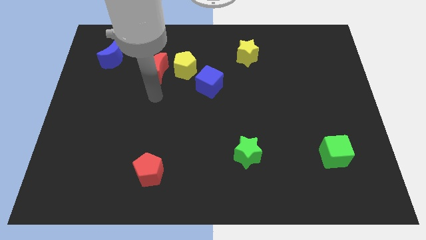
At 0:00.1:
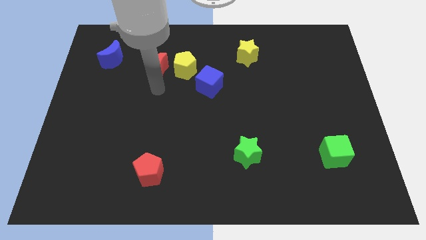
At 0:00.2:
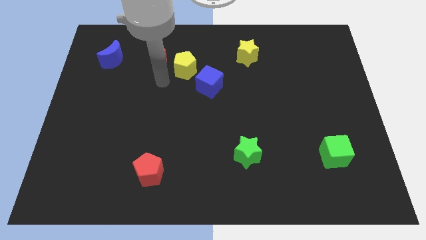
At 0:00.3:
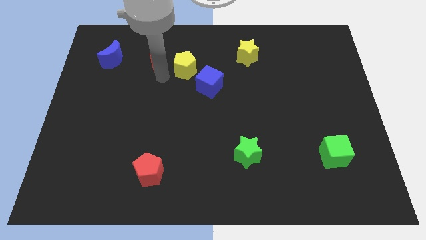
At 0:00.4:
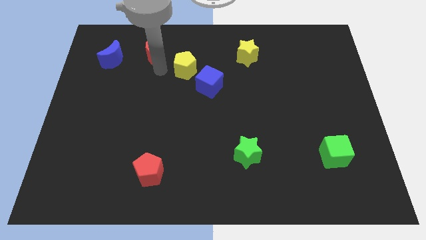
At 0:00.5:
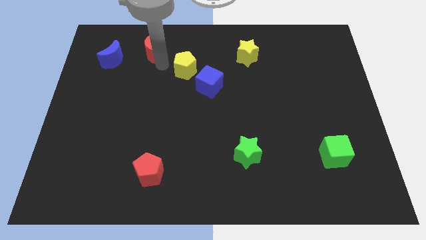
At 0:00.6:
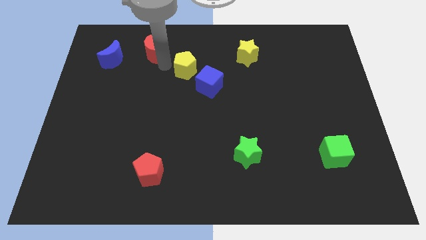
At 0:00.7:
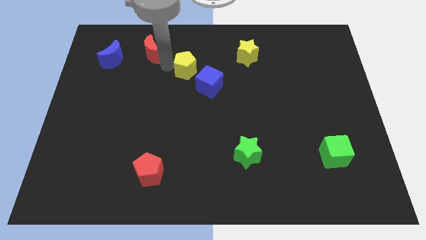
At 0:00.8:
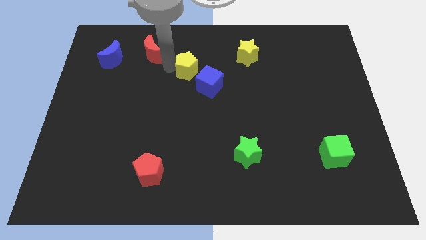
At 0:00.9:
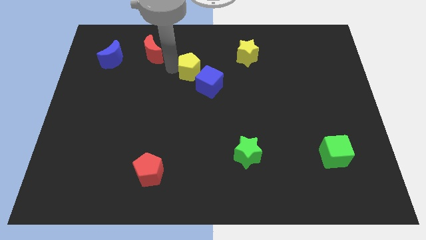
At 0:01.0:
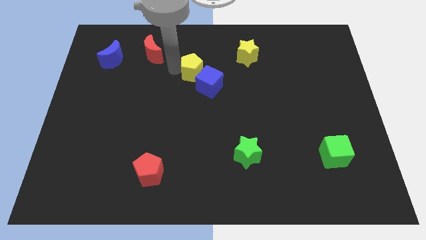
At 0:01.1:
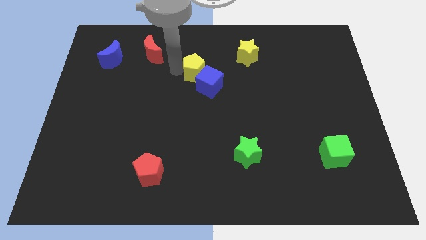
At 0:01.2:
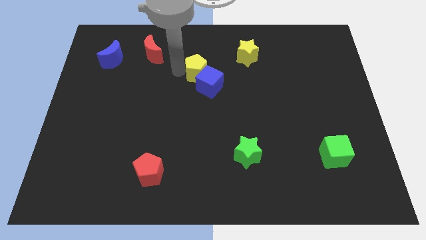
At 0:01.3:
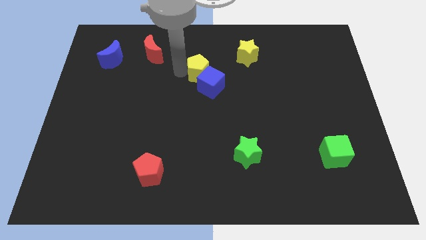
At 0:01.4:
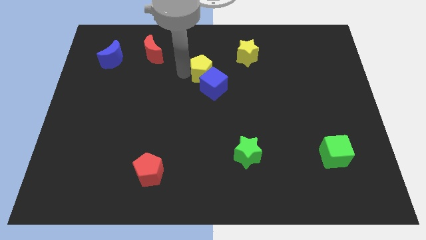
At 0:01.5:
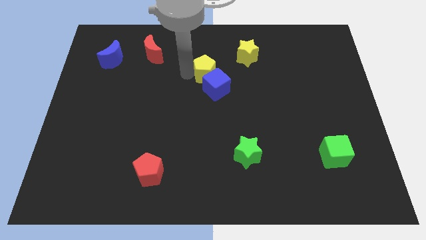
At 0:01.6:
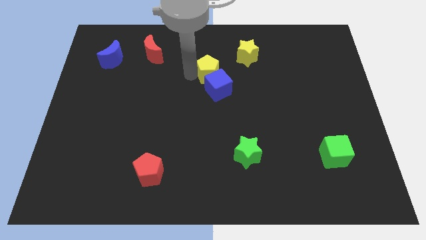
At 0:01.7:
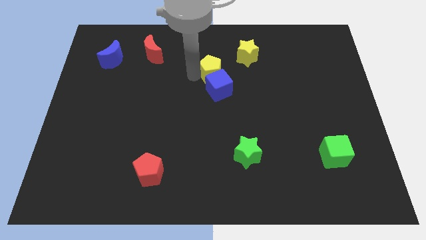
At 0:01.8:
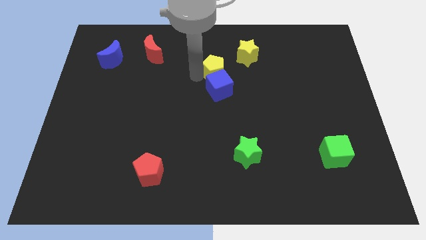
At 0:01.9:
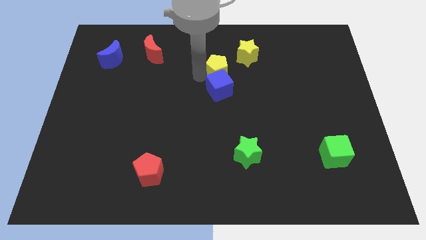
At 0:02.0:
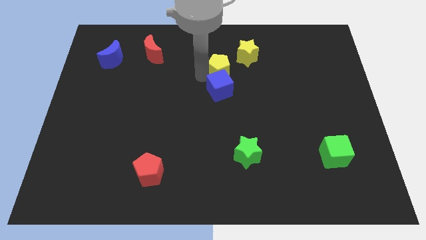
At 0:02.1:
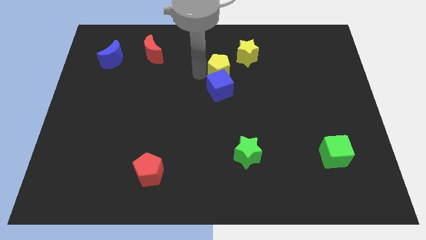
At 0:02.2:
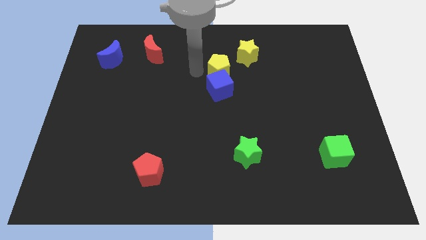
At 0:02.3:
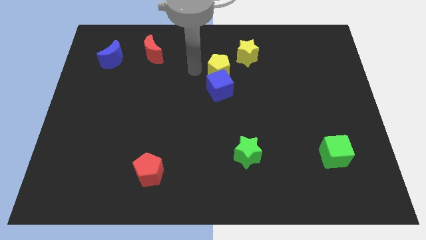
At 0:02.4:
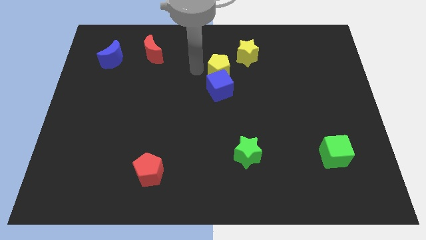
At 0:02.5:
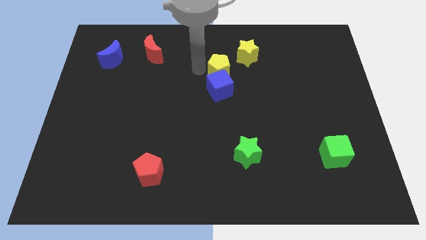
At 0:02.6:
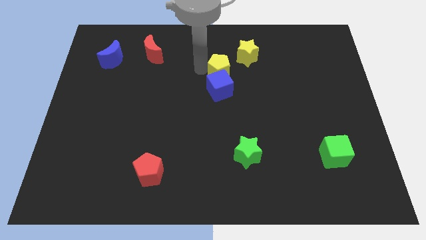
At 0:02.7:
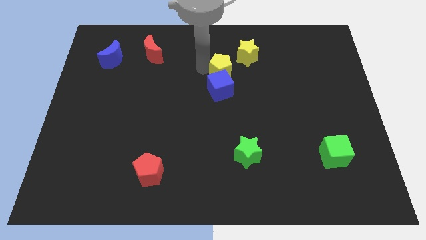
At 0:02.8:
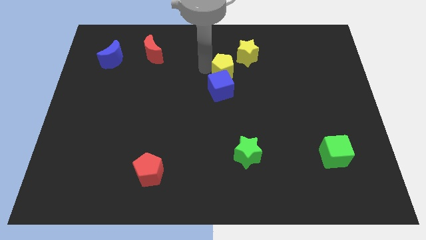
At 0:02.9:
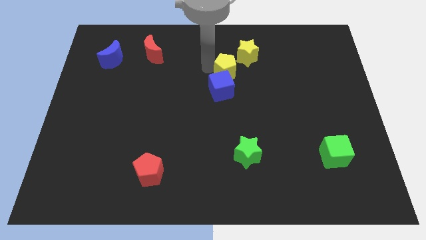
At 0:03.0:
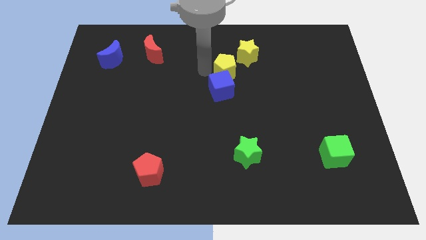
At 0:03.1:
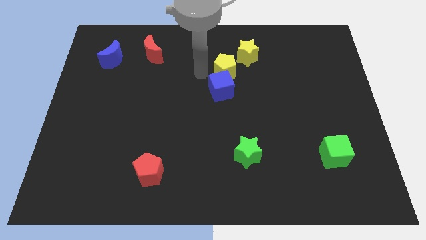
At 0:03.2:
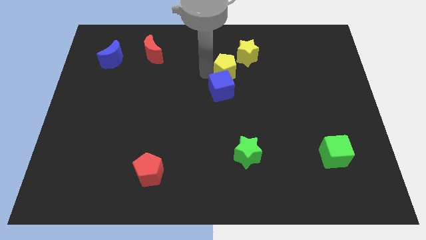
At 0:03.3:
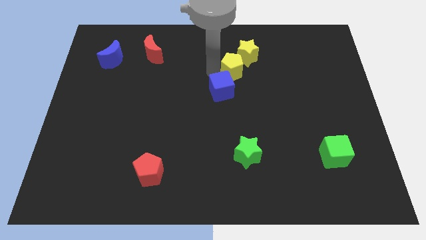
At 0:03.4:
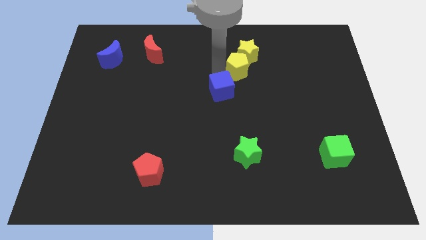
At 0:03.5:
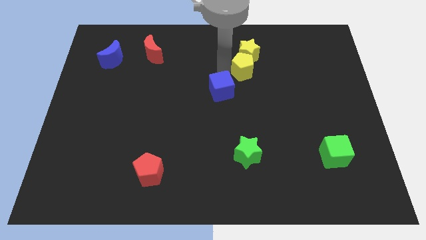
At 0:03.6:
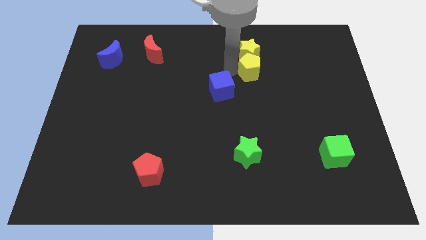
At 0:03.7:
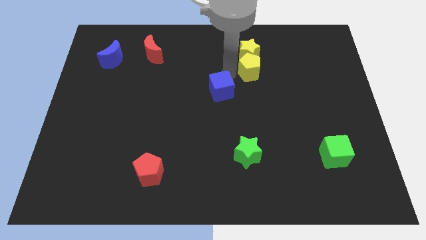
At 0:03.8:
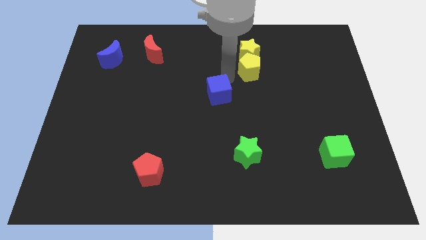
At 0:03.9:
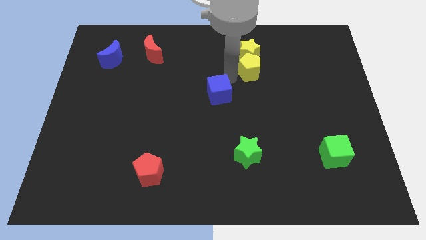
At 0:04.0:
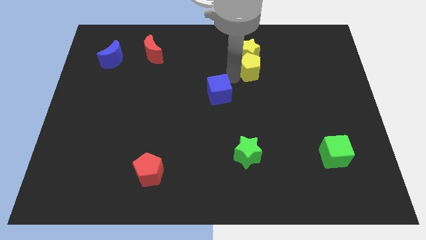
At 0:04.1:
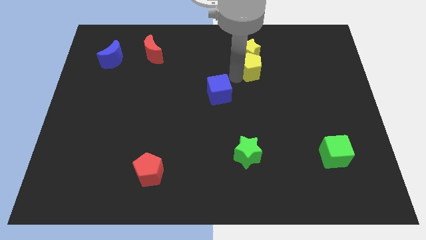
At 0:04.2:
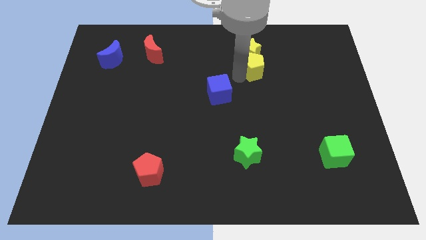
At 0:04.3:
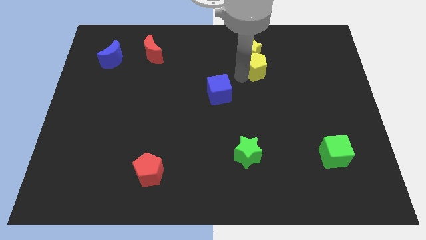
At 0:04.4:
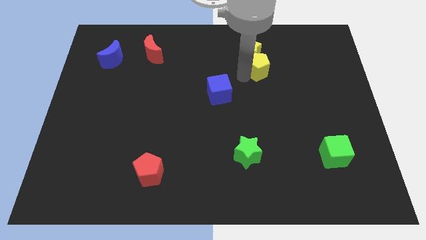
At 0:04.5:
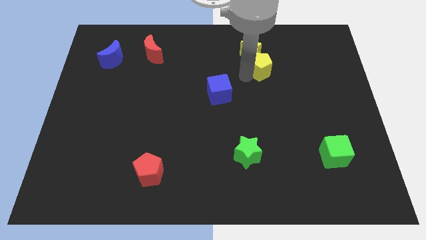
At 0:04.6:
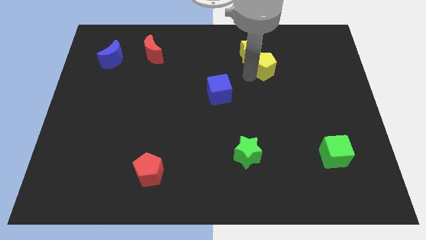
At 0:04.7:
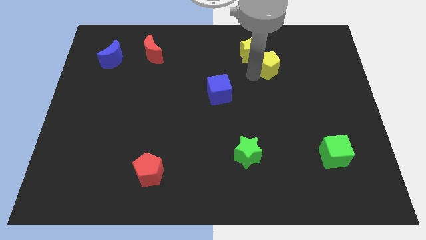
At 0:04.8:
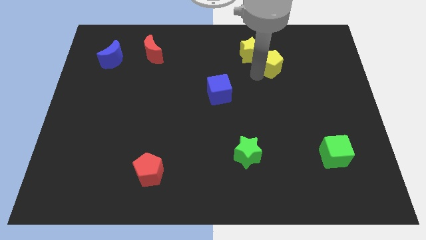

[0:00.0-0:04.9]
slide the yellow pentagon to the right side of the yellow star

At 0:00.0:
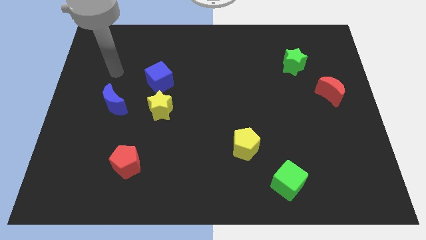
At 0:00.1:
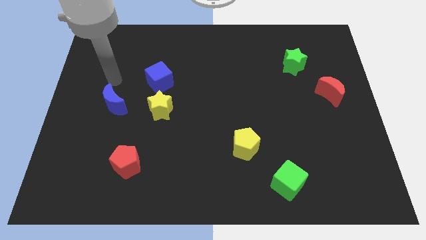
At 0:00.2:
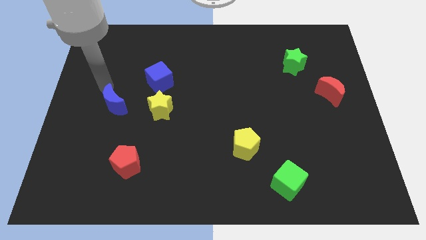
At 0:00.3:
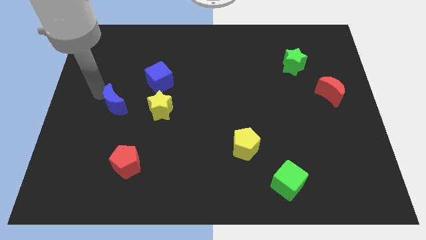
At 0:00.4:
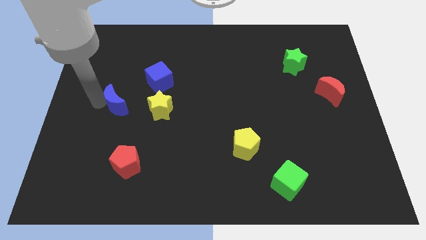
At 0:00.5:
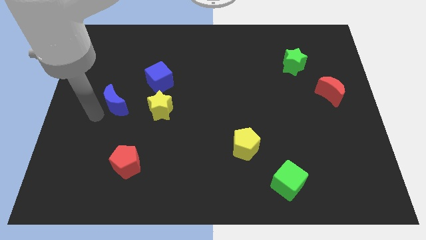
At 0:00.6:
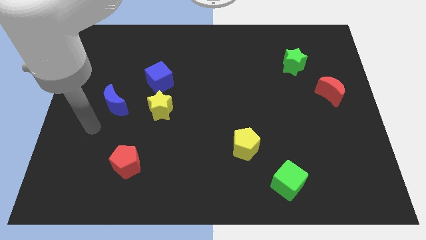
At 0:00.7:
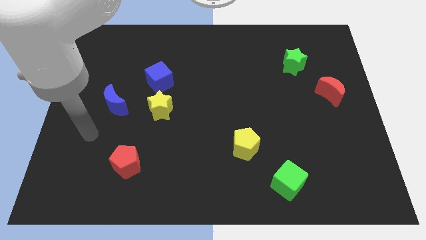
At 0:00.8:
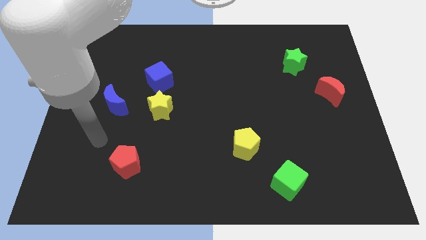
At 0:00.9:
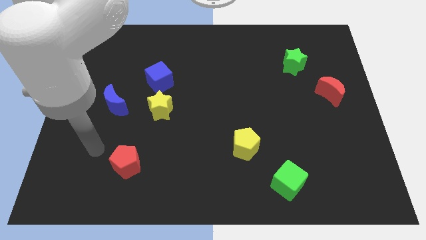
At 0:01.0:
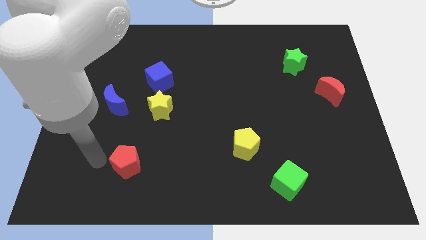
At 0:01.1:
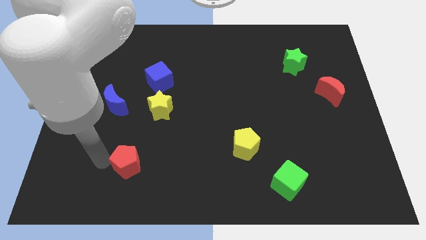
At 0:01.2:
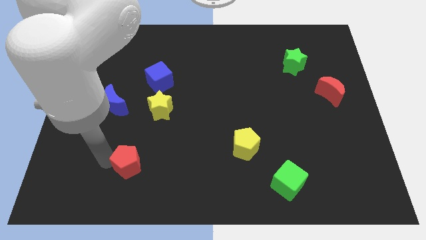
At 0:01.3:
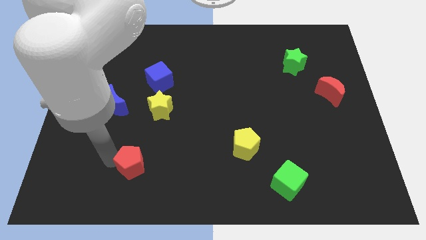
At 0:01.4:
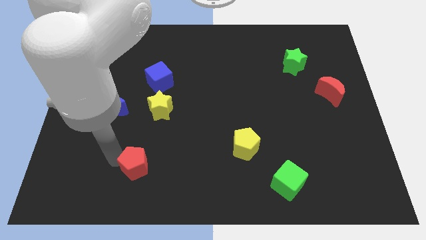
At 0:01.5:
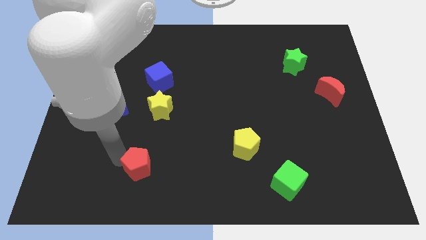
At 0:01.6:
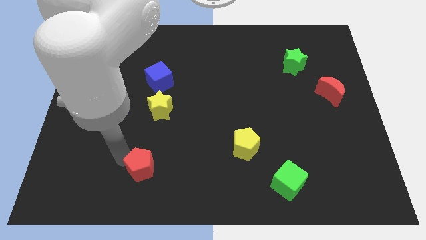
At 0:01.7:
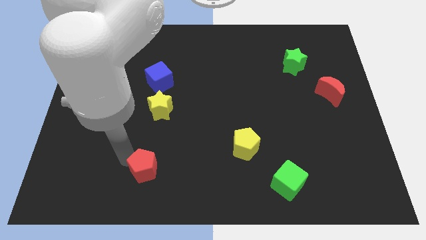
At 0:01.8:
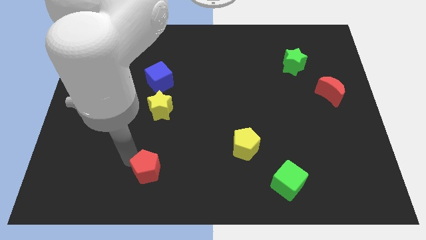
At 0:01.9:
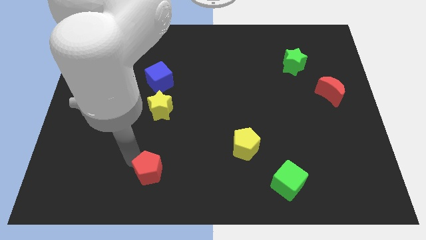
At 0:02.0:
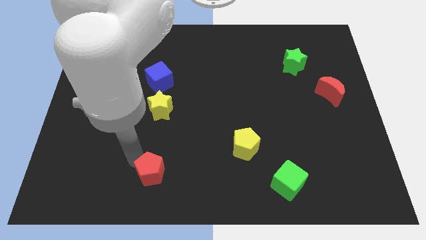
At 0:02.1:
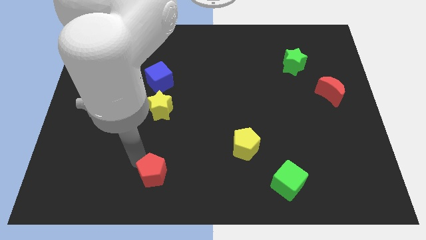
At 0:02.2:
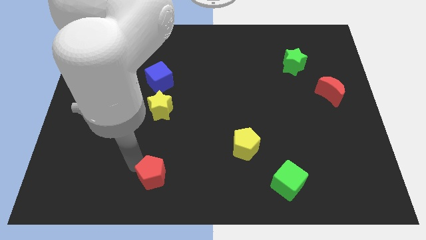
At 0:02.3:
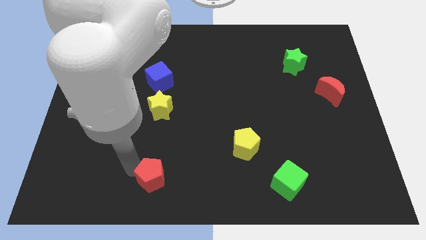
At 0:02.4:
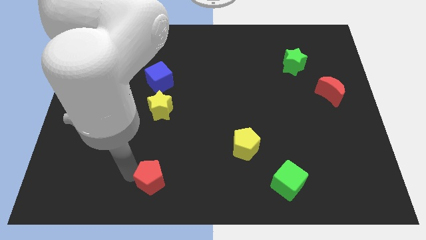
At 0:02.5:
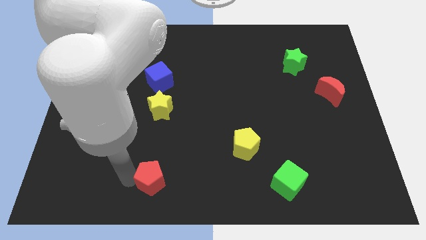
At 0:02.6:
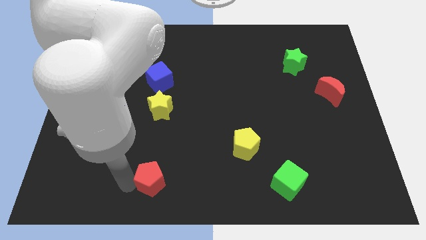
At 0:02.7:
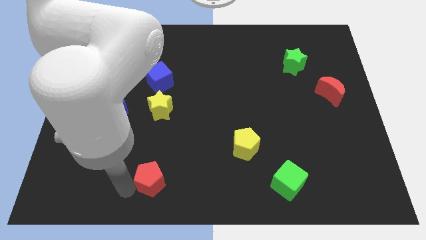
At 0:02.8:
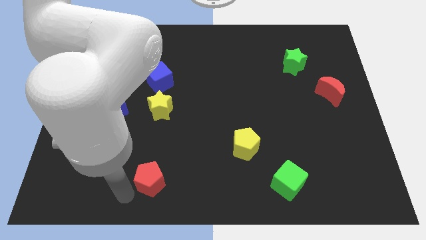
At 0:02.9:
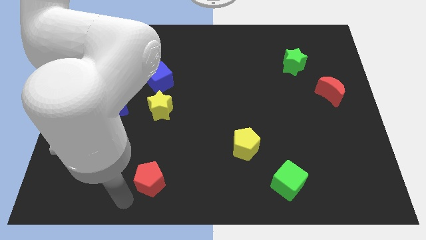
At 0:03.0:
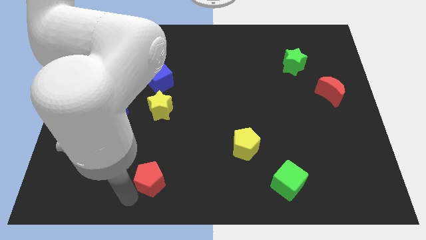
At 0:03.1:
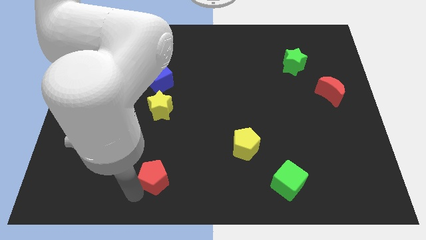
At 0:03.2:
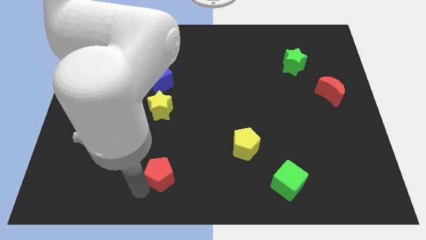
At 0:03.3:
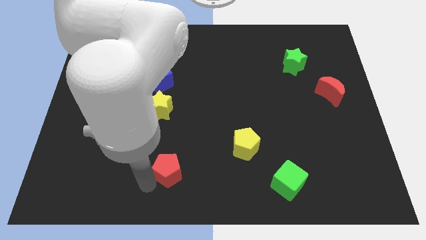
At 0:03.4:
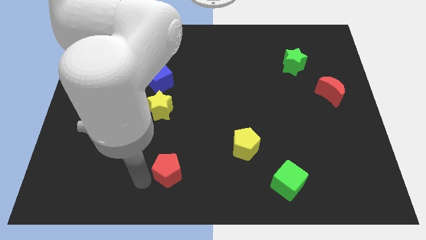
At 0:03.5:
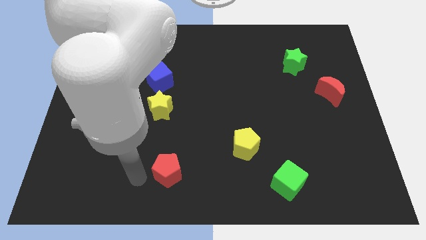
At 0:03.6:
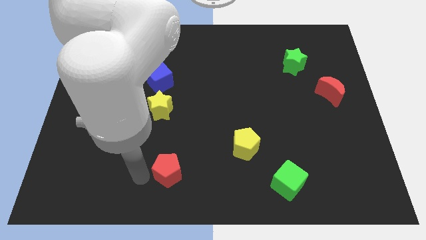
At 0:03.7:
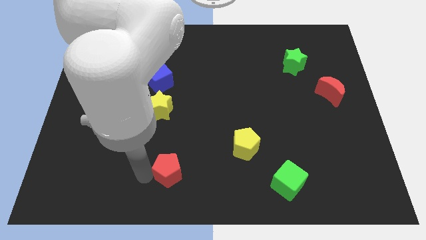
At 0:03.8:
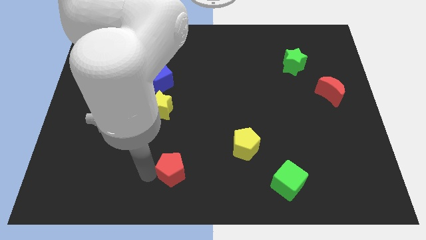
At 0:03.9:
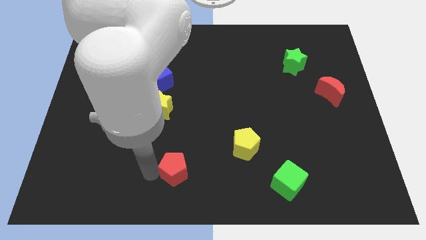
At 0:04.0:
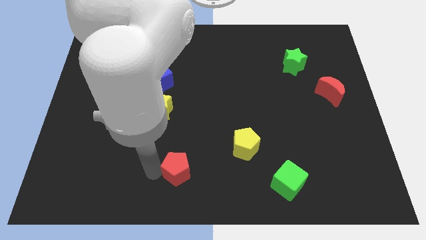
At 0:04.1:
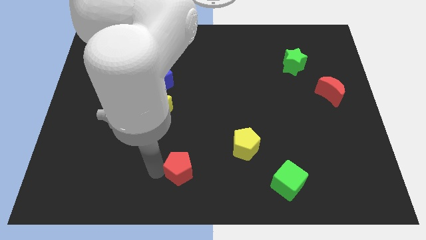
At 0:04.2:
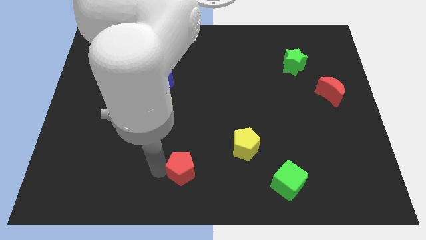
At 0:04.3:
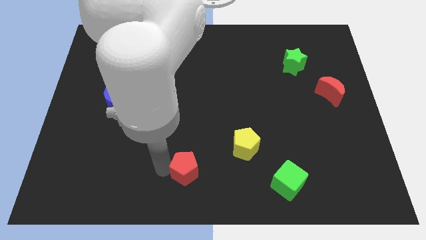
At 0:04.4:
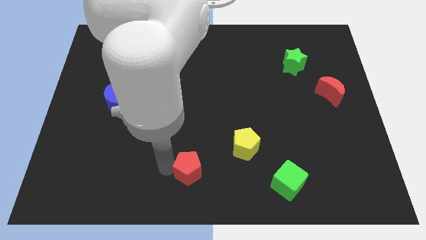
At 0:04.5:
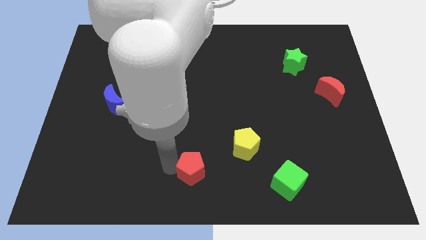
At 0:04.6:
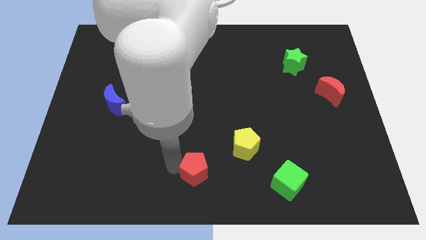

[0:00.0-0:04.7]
move the red pentagon to the bottom left of the yellow pentagon
